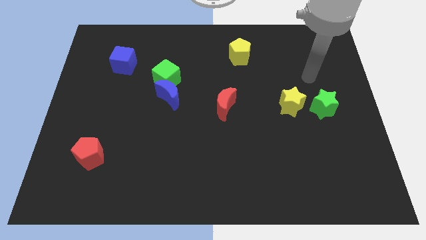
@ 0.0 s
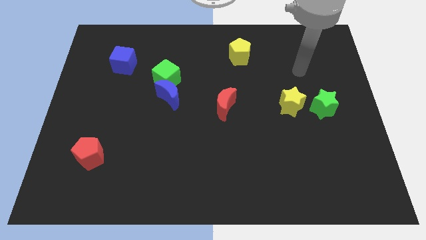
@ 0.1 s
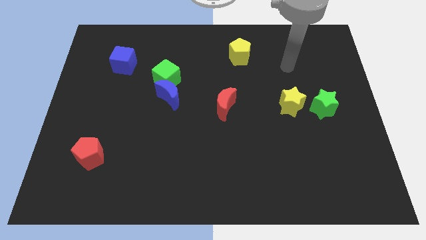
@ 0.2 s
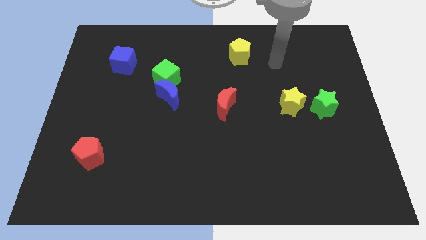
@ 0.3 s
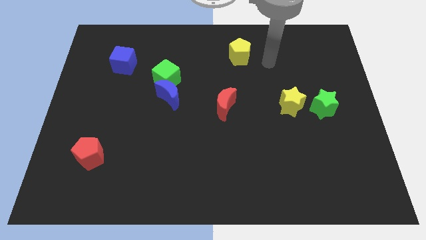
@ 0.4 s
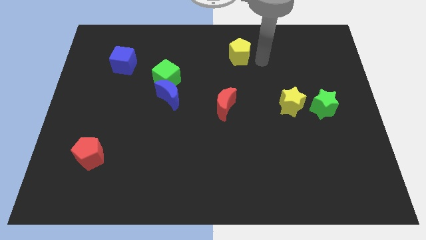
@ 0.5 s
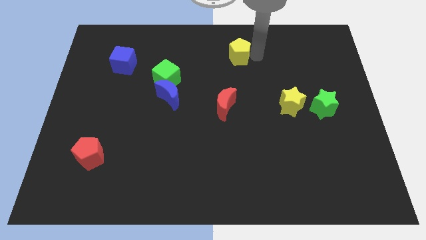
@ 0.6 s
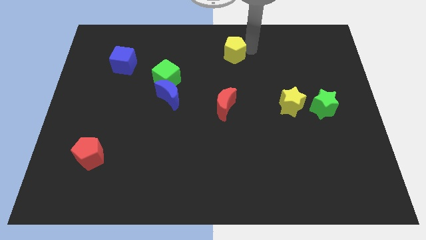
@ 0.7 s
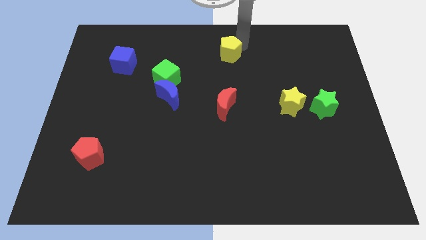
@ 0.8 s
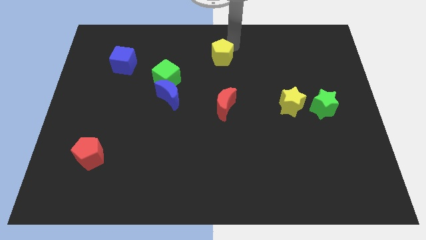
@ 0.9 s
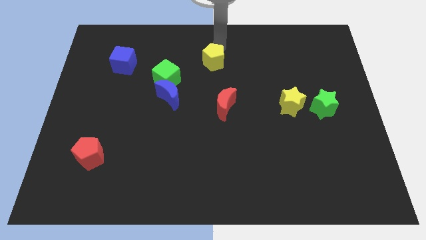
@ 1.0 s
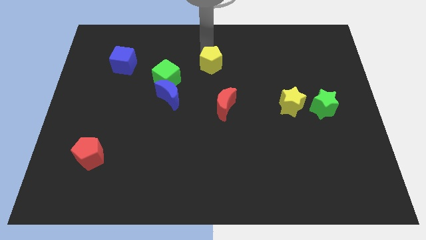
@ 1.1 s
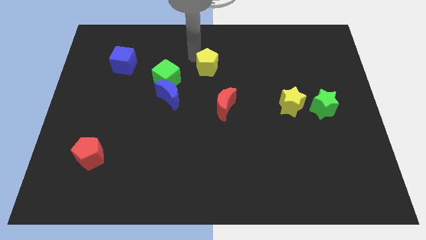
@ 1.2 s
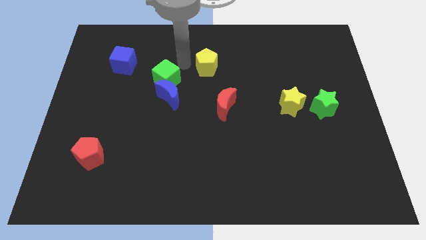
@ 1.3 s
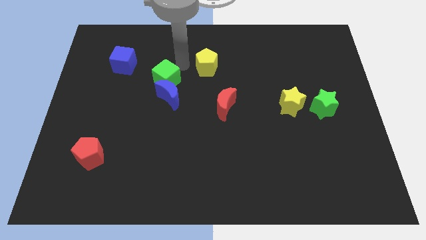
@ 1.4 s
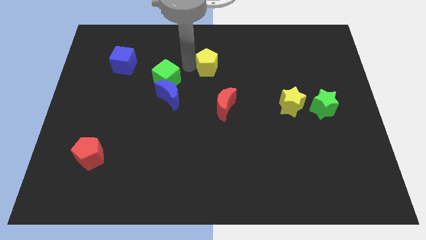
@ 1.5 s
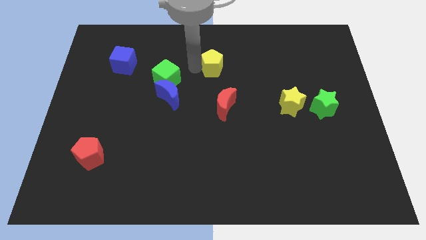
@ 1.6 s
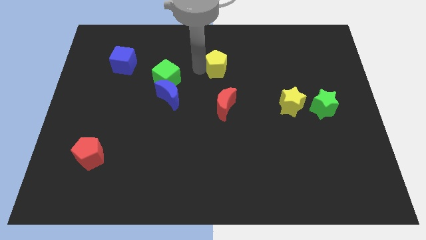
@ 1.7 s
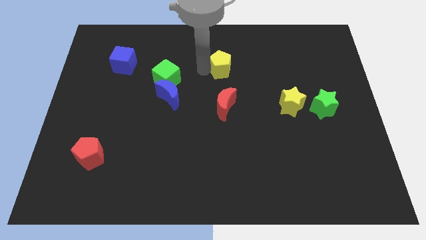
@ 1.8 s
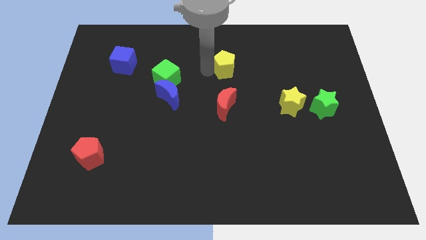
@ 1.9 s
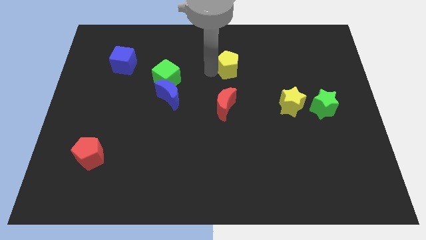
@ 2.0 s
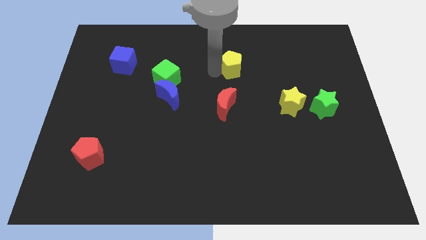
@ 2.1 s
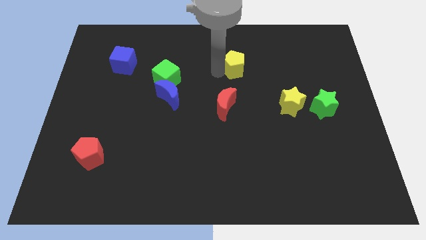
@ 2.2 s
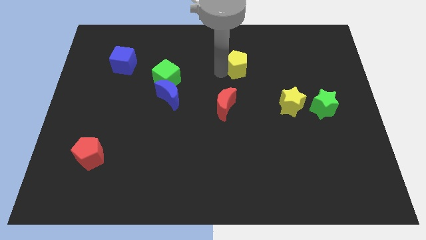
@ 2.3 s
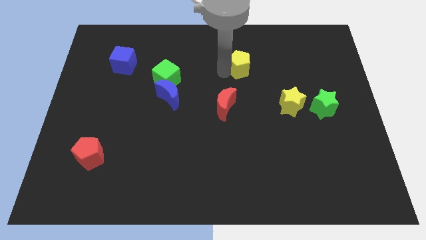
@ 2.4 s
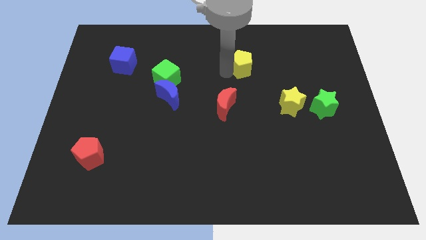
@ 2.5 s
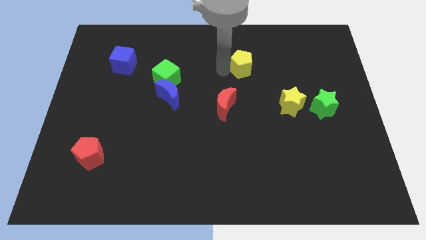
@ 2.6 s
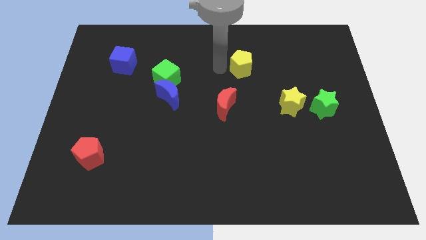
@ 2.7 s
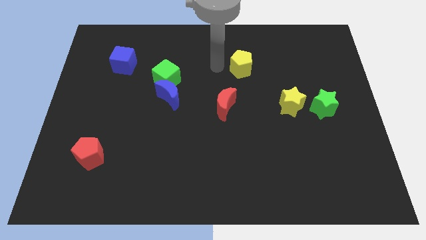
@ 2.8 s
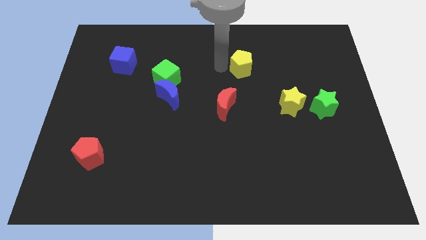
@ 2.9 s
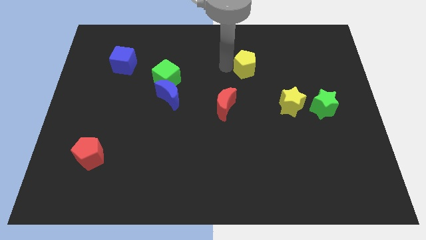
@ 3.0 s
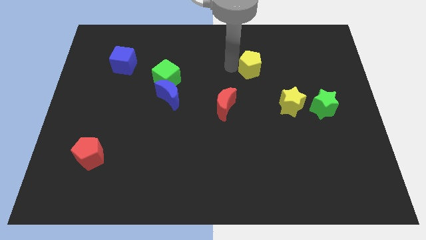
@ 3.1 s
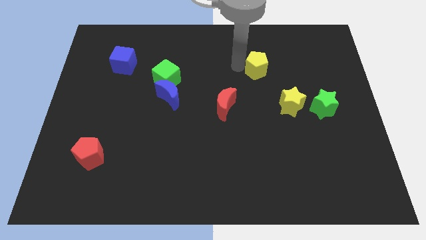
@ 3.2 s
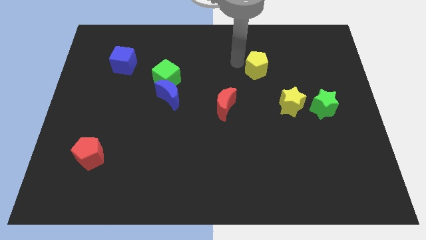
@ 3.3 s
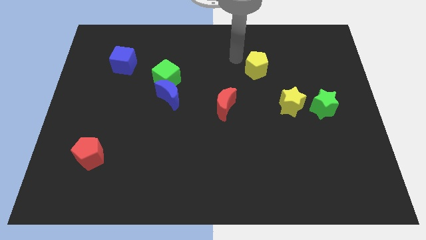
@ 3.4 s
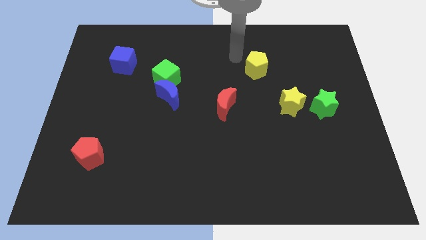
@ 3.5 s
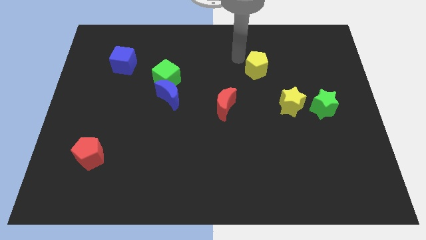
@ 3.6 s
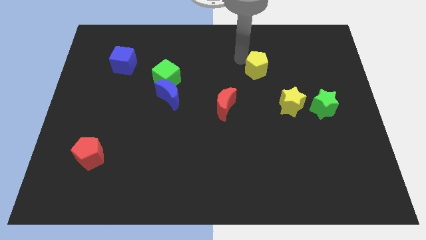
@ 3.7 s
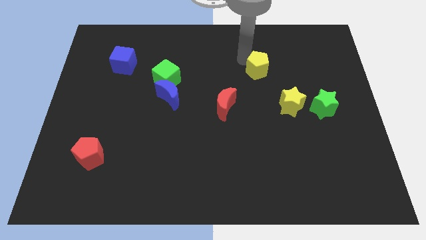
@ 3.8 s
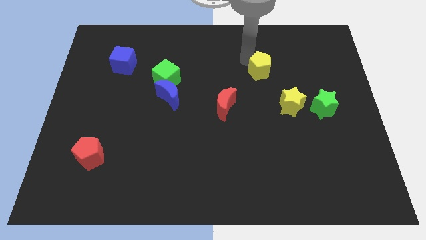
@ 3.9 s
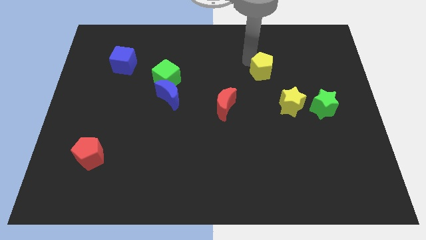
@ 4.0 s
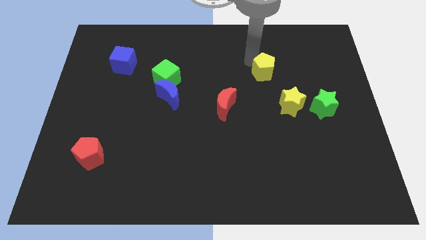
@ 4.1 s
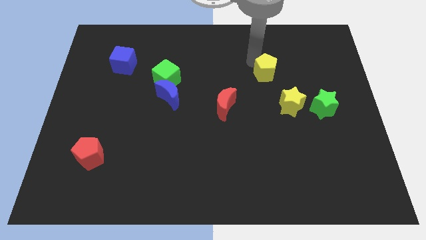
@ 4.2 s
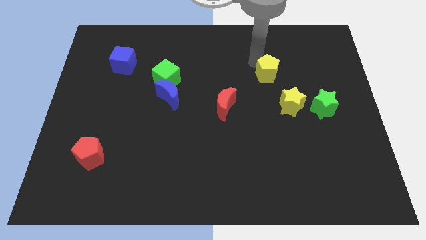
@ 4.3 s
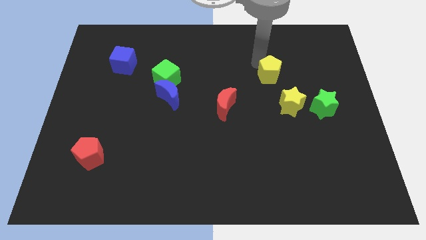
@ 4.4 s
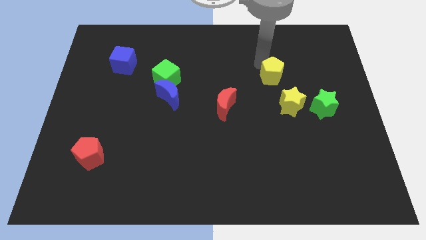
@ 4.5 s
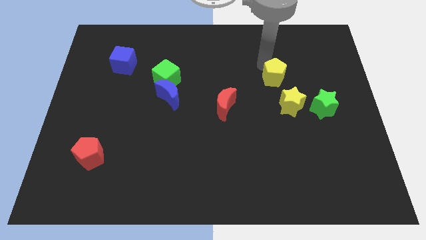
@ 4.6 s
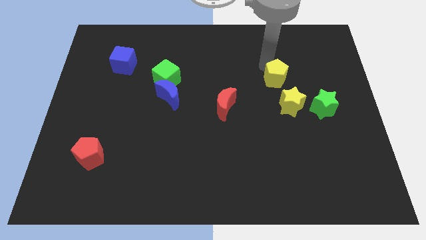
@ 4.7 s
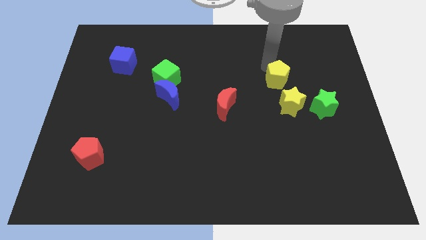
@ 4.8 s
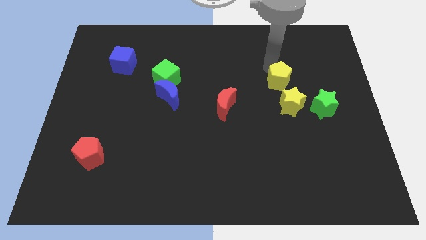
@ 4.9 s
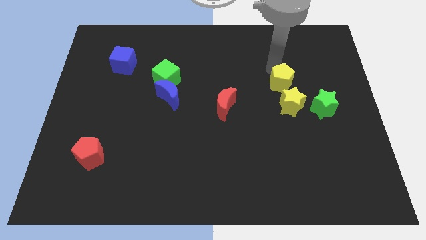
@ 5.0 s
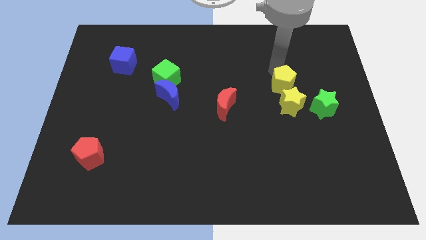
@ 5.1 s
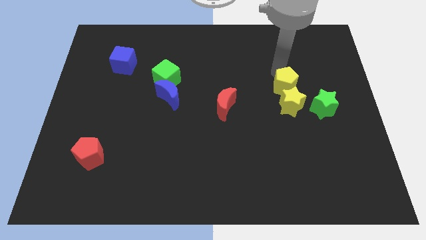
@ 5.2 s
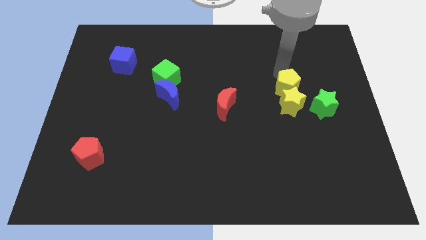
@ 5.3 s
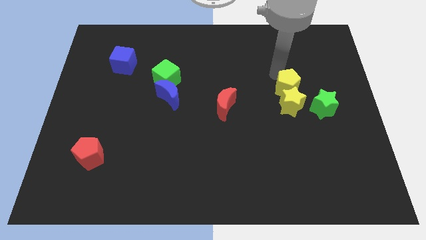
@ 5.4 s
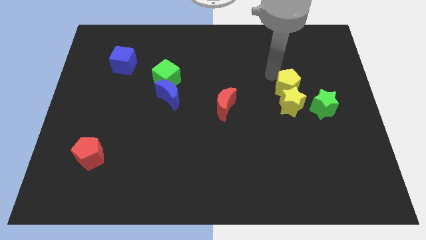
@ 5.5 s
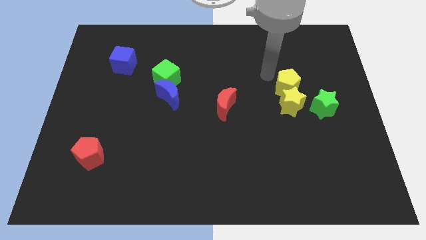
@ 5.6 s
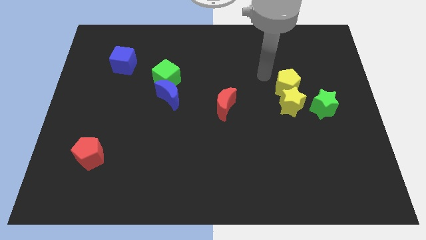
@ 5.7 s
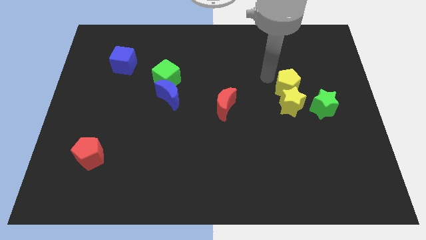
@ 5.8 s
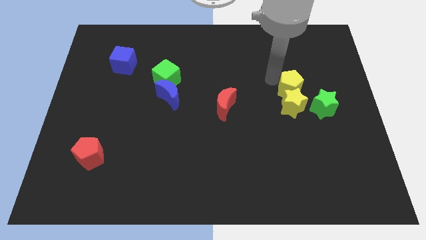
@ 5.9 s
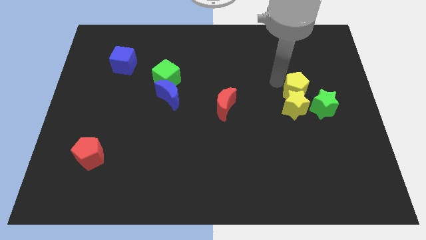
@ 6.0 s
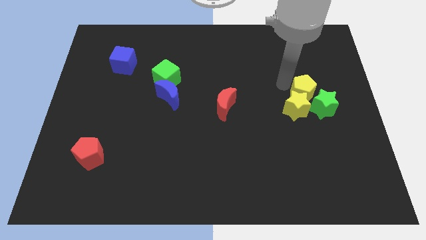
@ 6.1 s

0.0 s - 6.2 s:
push the yellow pentagon next to the green star

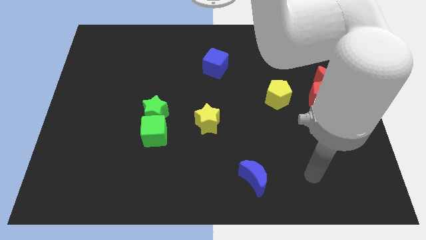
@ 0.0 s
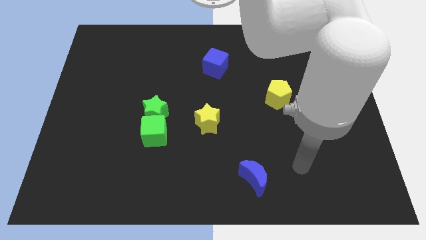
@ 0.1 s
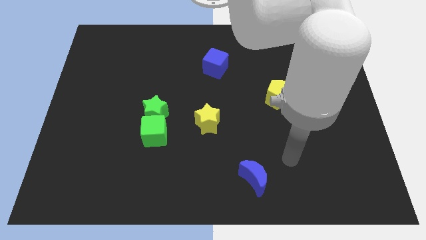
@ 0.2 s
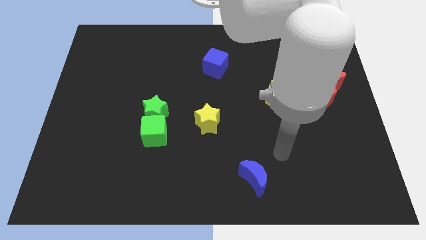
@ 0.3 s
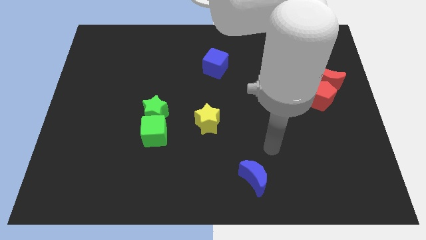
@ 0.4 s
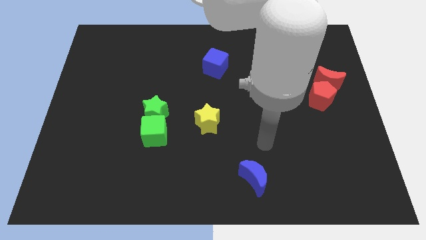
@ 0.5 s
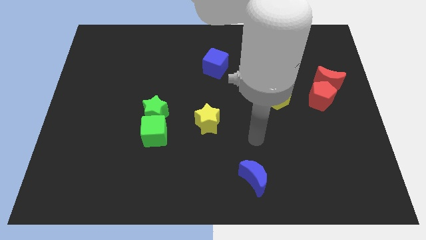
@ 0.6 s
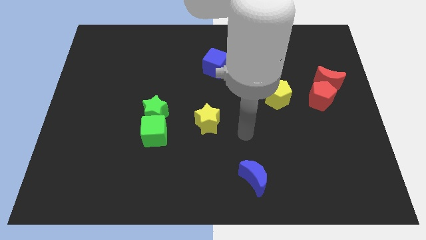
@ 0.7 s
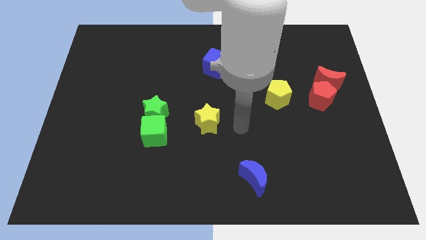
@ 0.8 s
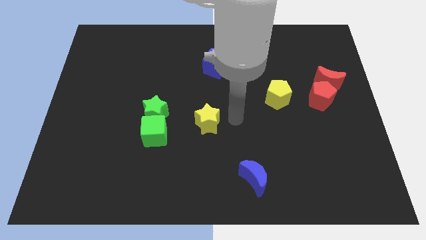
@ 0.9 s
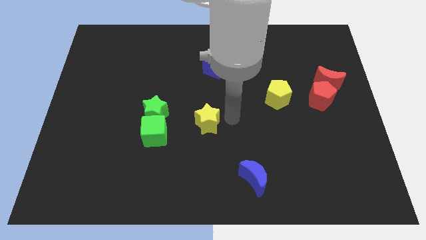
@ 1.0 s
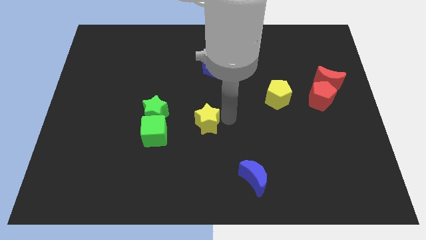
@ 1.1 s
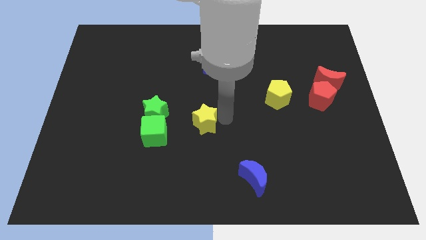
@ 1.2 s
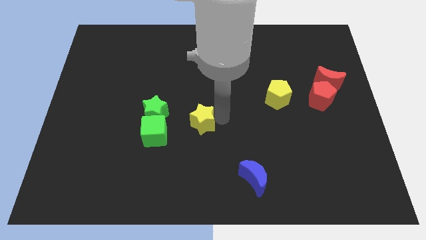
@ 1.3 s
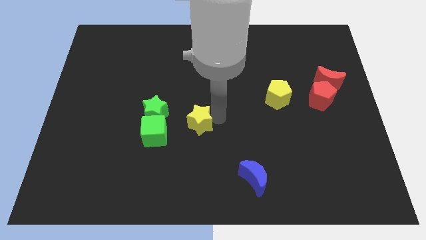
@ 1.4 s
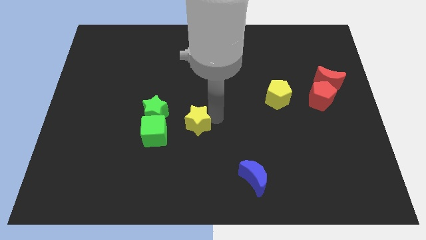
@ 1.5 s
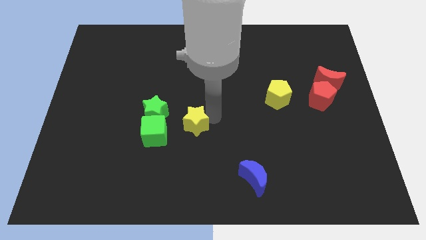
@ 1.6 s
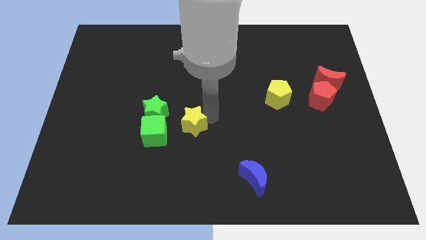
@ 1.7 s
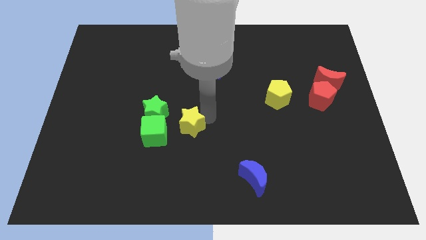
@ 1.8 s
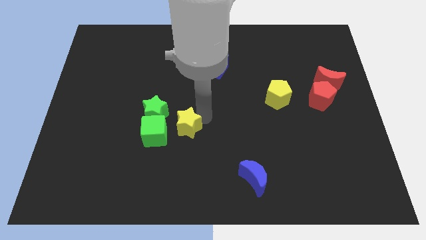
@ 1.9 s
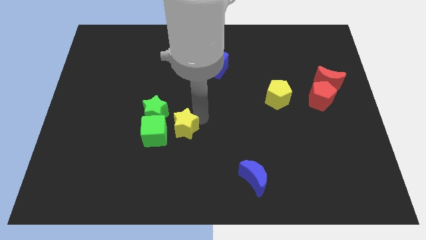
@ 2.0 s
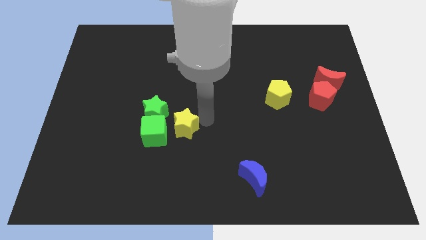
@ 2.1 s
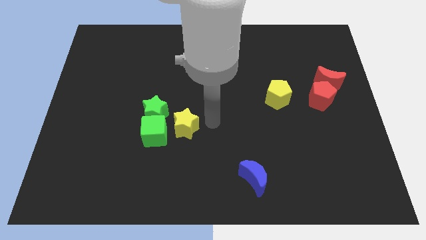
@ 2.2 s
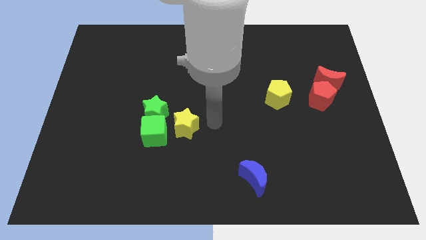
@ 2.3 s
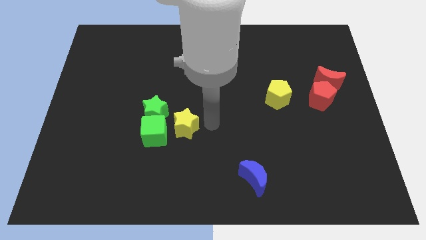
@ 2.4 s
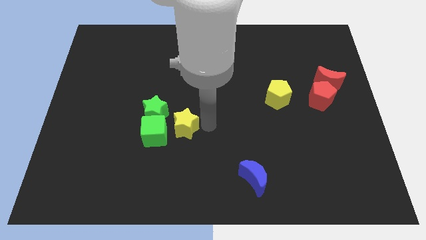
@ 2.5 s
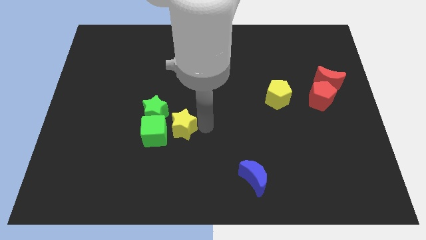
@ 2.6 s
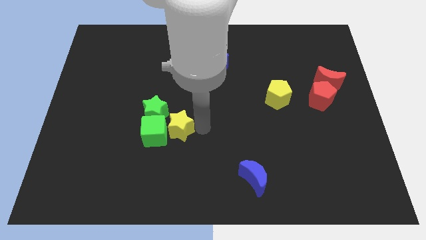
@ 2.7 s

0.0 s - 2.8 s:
push the yellow star towards the green cube
